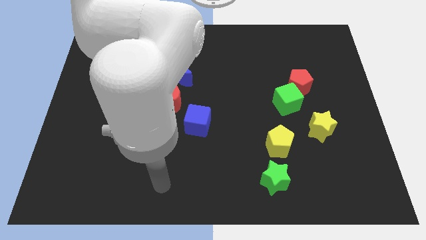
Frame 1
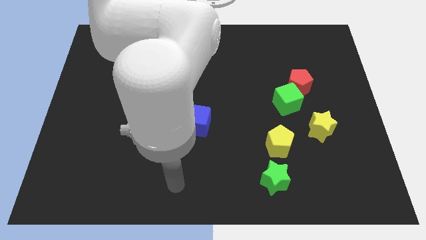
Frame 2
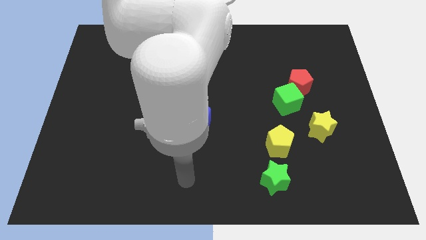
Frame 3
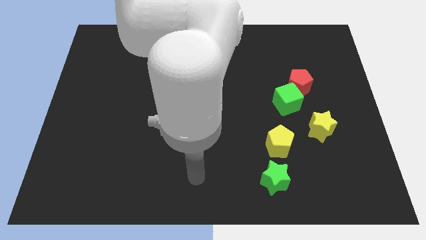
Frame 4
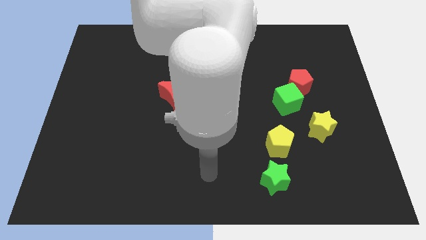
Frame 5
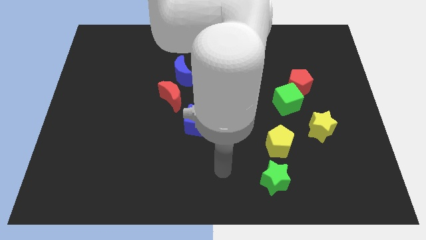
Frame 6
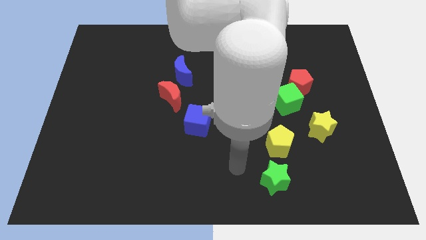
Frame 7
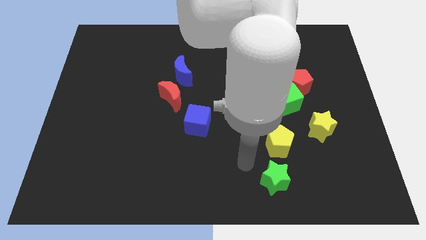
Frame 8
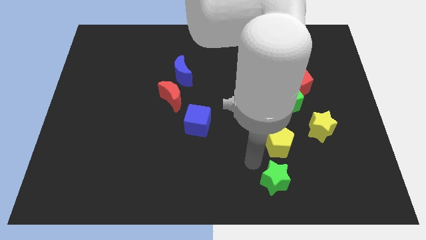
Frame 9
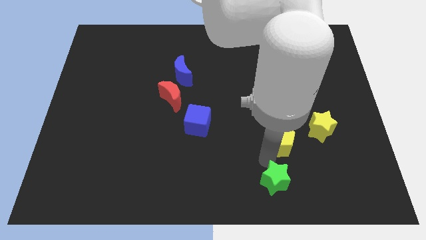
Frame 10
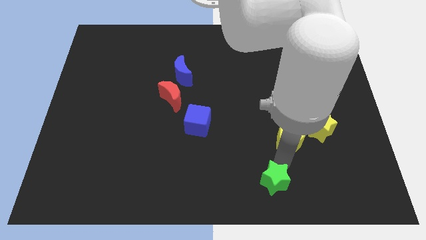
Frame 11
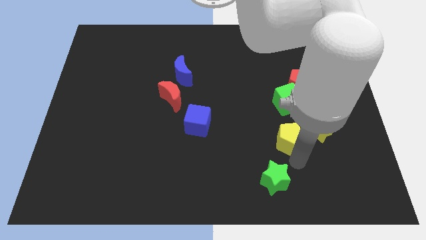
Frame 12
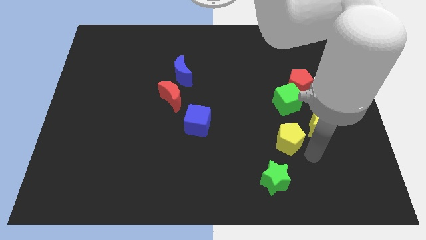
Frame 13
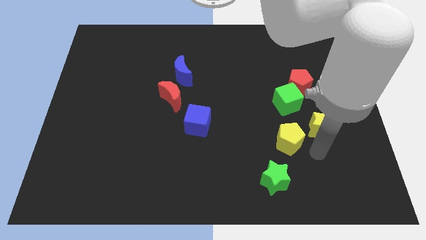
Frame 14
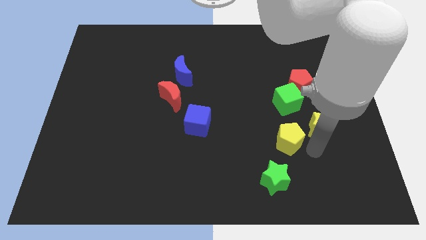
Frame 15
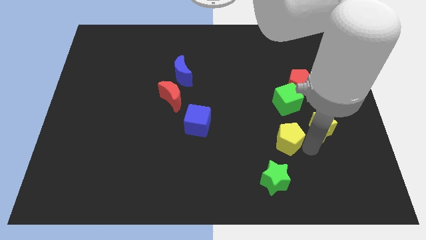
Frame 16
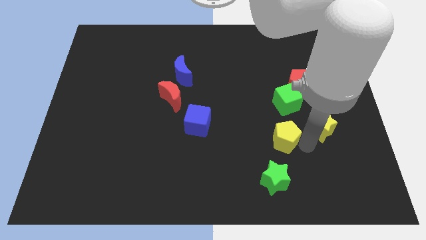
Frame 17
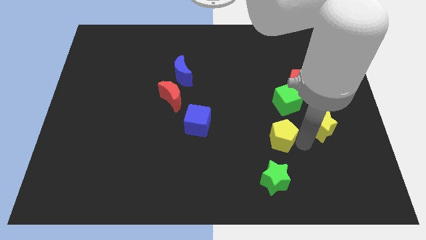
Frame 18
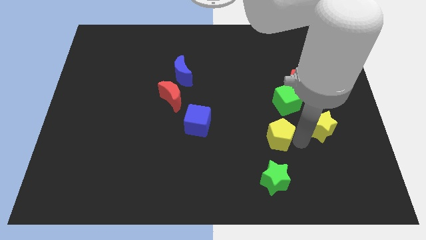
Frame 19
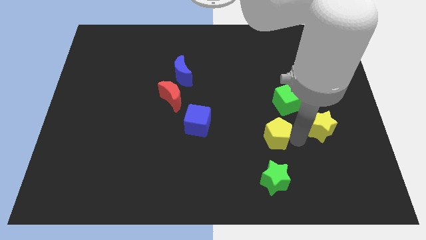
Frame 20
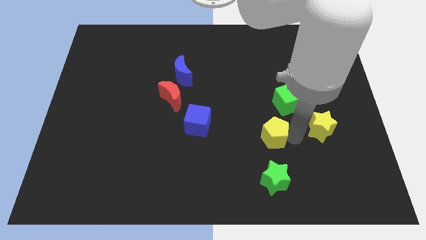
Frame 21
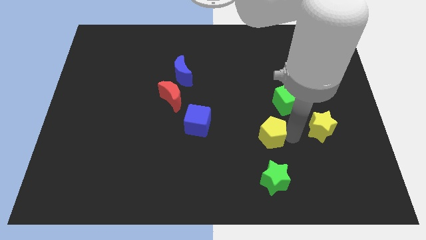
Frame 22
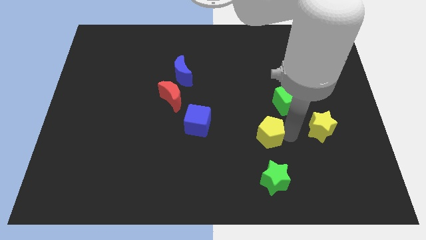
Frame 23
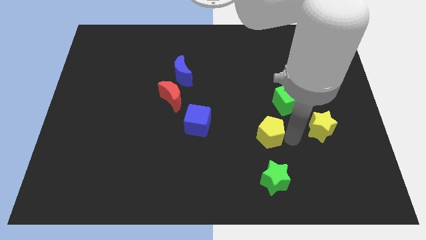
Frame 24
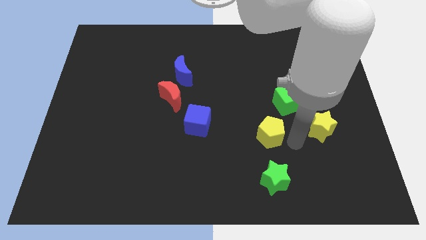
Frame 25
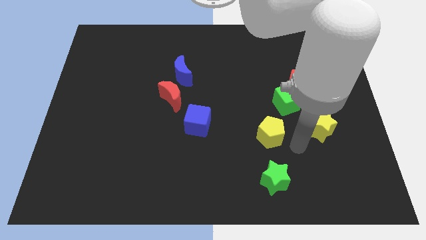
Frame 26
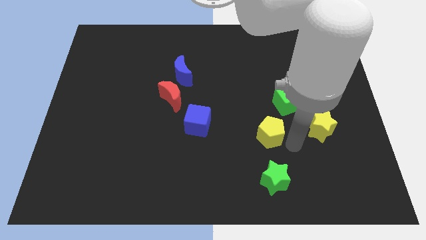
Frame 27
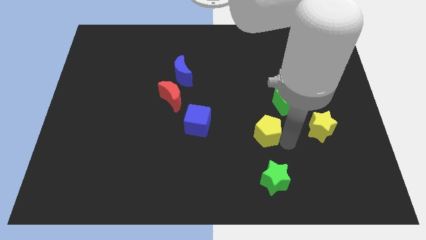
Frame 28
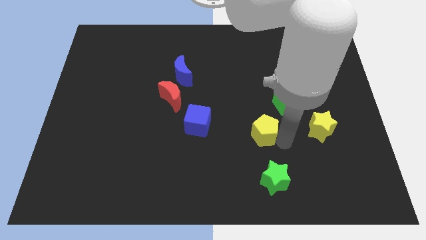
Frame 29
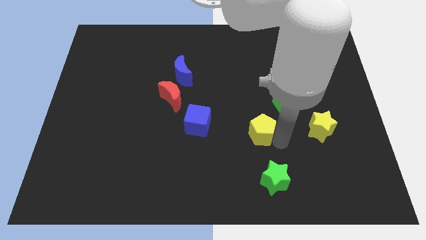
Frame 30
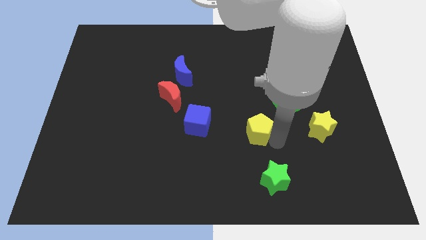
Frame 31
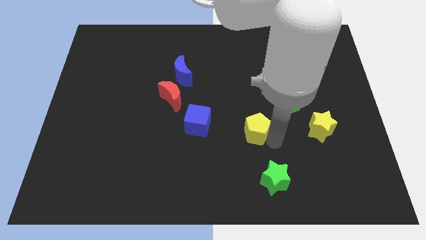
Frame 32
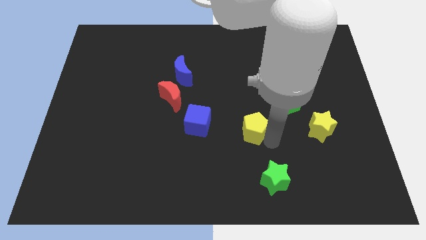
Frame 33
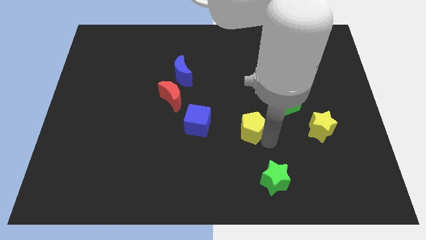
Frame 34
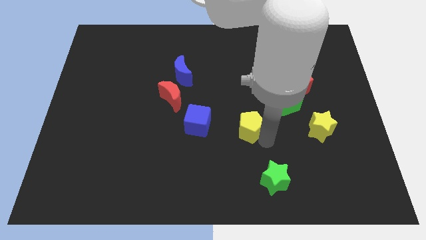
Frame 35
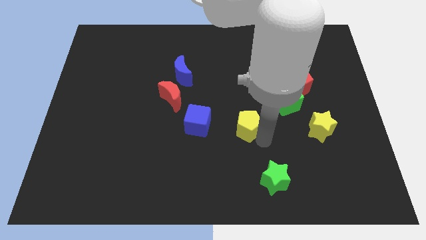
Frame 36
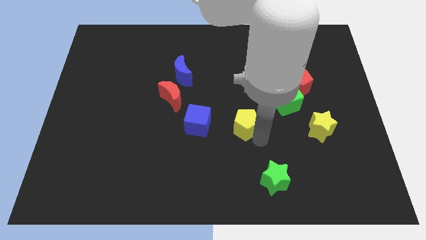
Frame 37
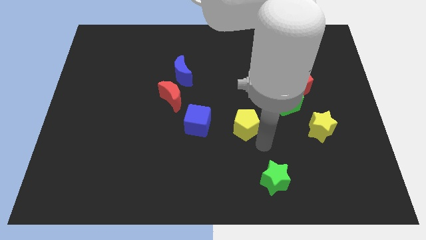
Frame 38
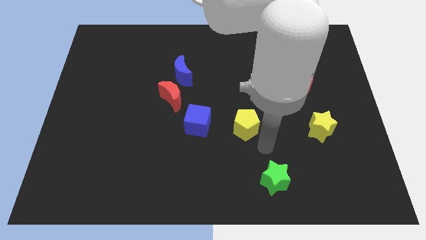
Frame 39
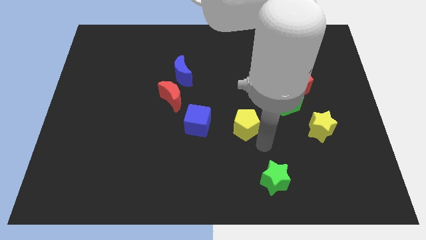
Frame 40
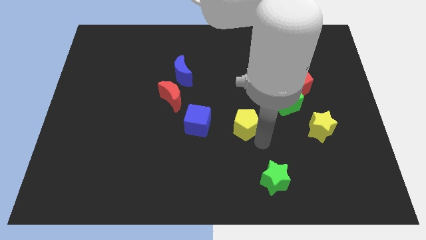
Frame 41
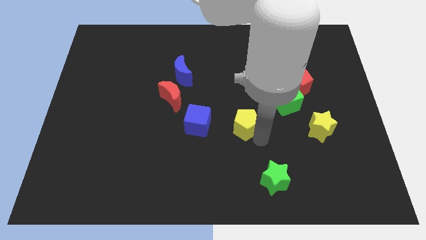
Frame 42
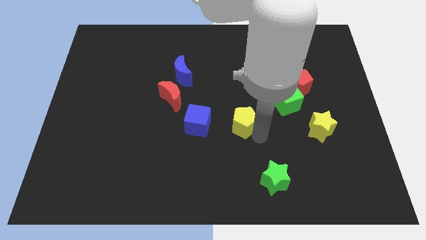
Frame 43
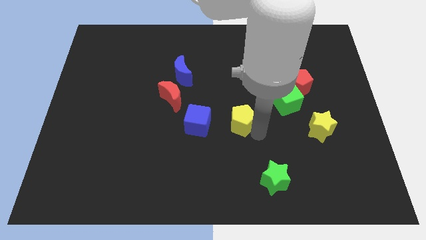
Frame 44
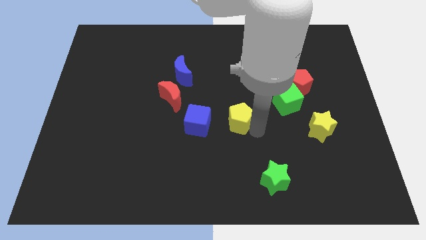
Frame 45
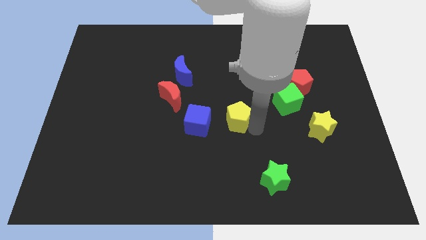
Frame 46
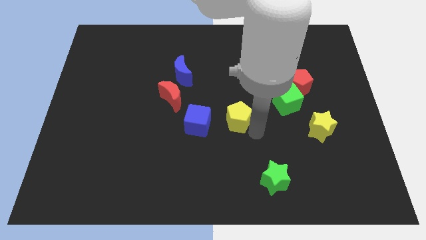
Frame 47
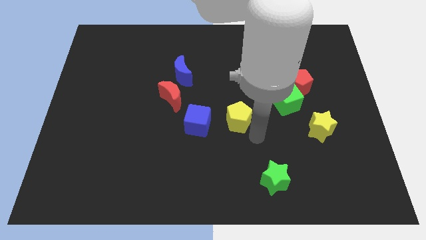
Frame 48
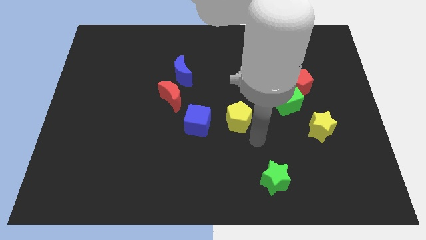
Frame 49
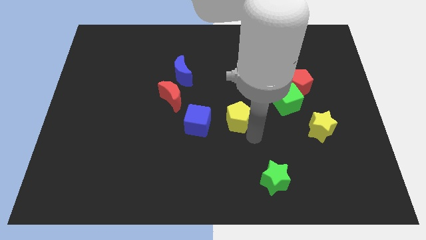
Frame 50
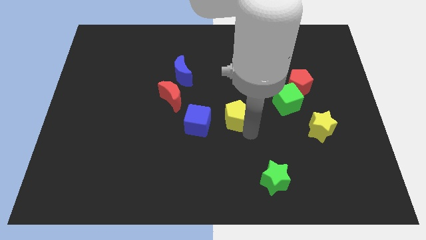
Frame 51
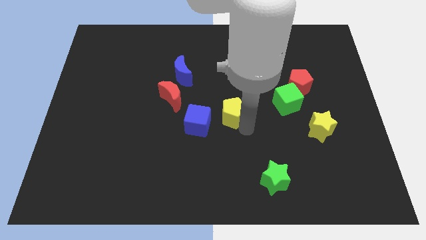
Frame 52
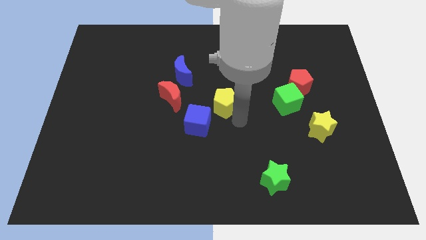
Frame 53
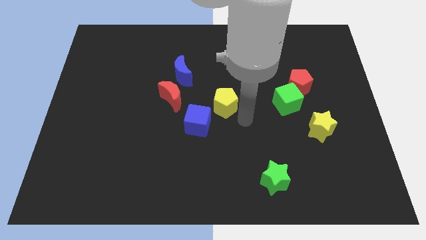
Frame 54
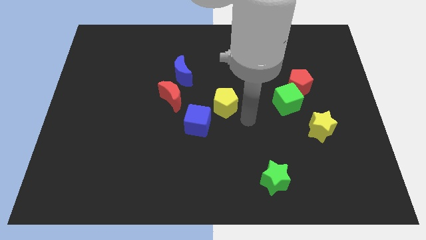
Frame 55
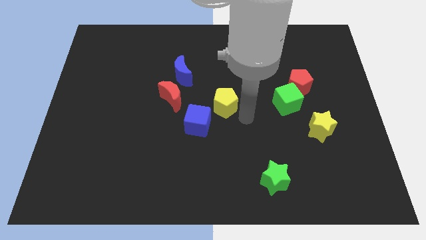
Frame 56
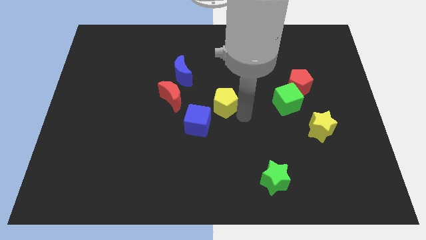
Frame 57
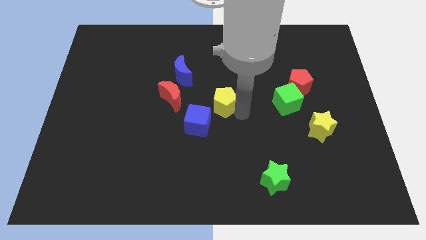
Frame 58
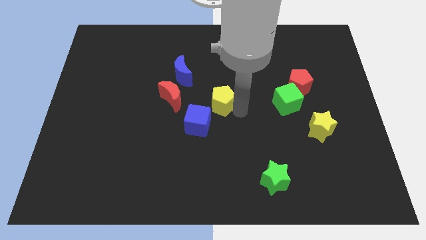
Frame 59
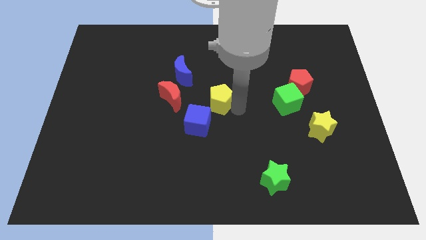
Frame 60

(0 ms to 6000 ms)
move the yellow pentagon to the bottom right of the blue moon

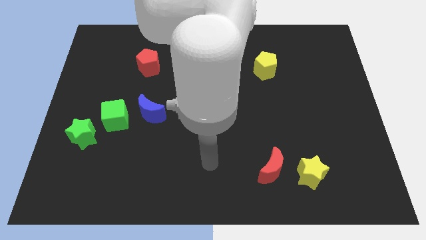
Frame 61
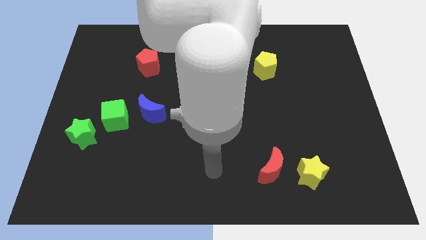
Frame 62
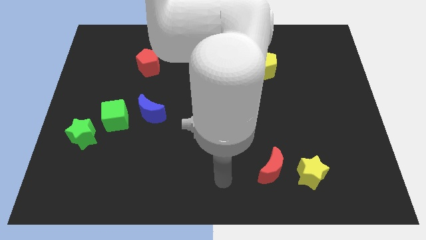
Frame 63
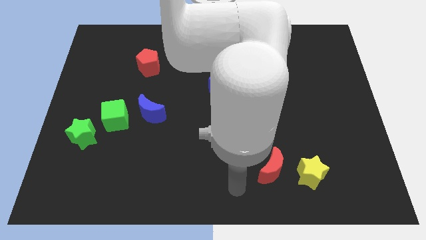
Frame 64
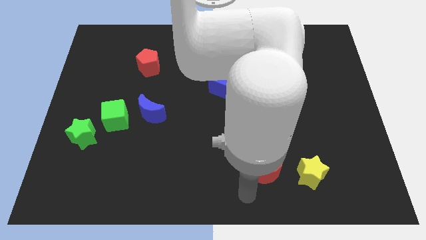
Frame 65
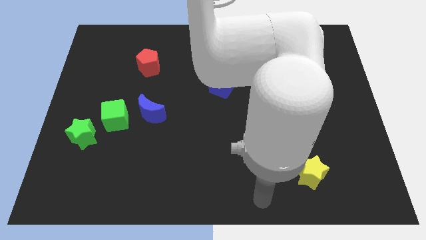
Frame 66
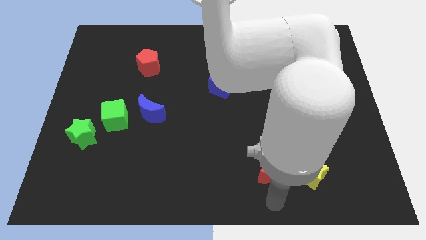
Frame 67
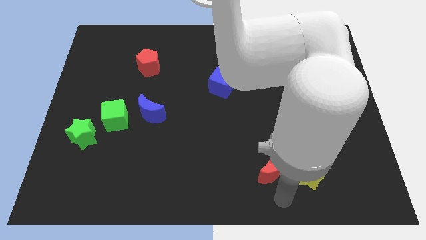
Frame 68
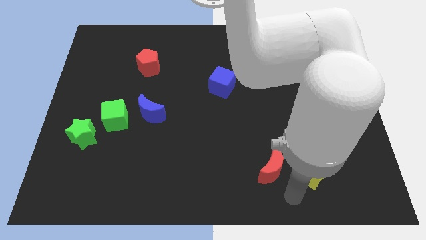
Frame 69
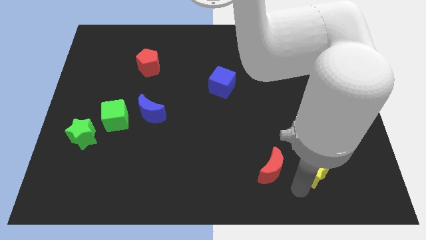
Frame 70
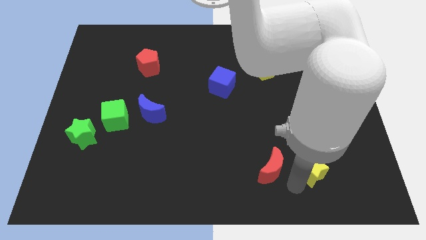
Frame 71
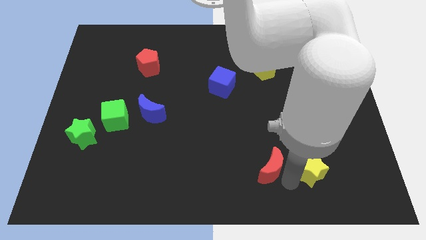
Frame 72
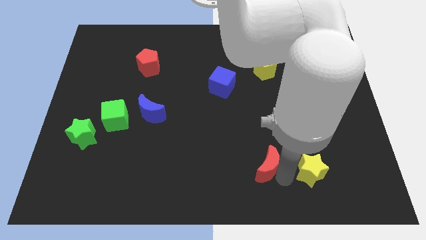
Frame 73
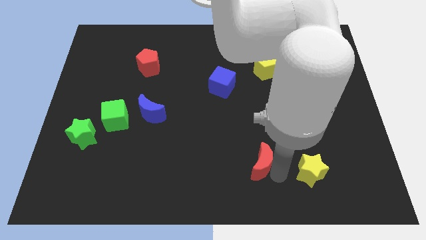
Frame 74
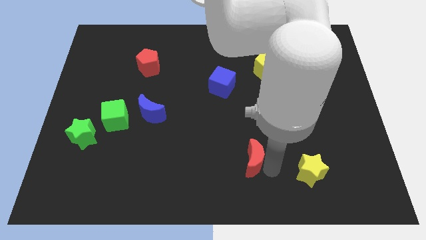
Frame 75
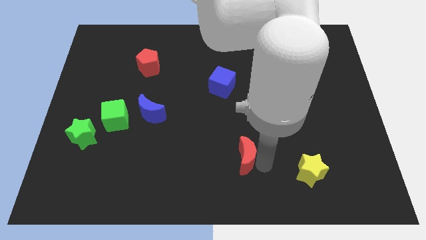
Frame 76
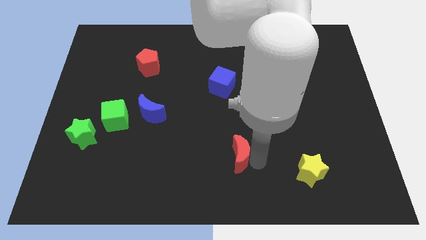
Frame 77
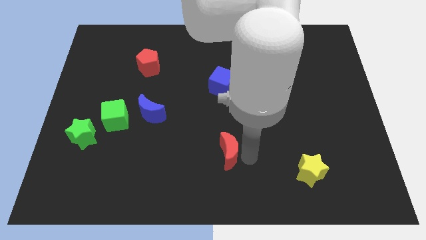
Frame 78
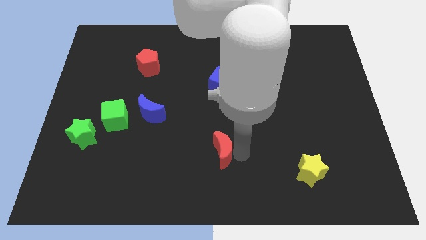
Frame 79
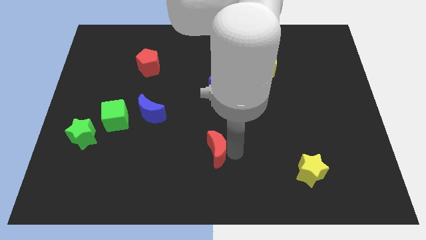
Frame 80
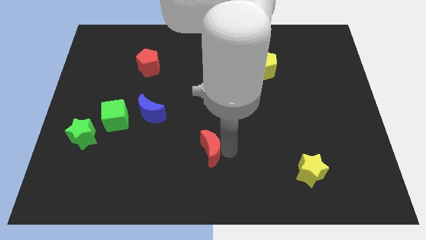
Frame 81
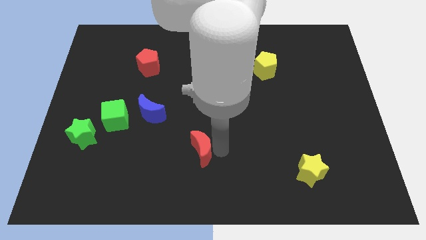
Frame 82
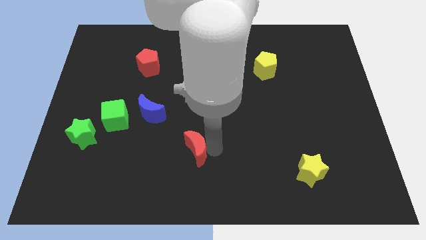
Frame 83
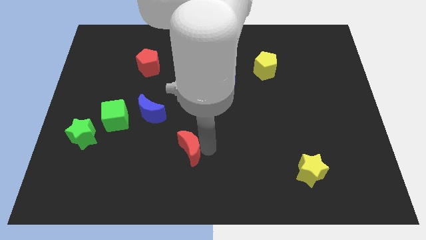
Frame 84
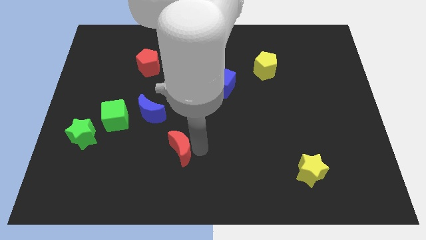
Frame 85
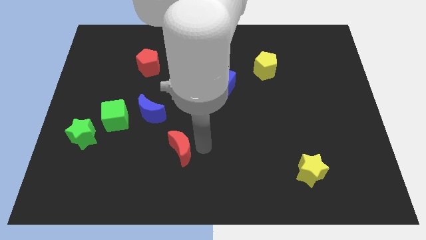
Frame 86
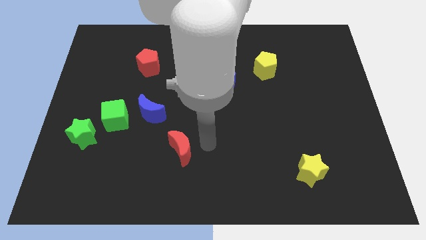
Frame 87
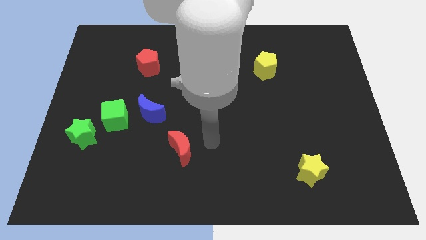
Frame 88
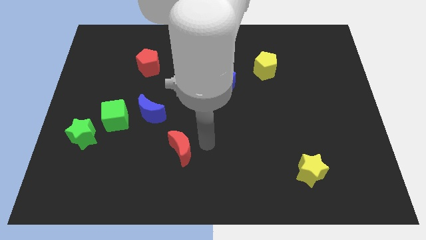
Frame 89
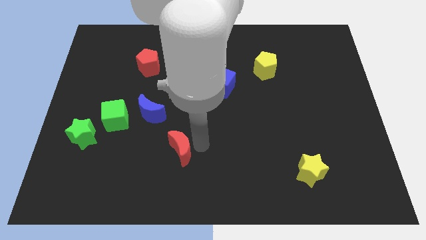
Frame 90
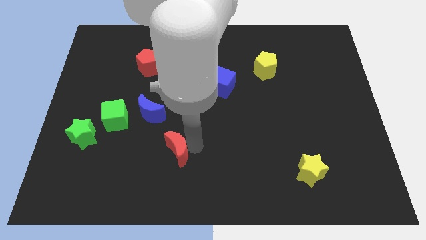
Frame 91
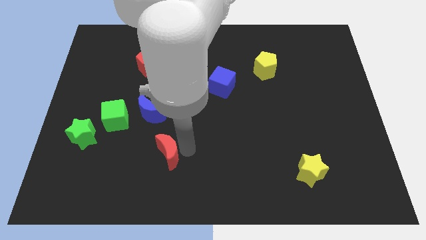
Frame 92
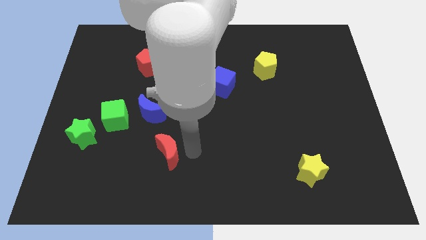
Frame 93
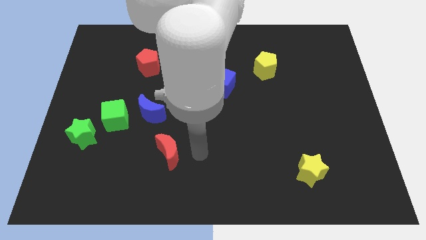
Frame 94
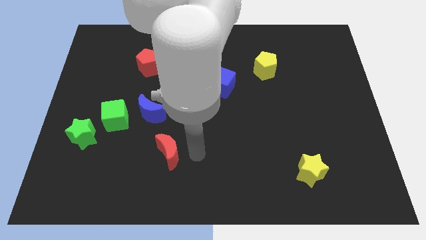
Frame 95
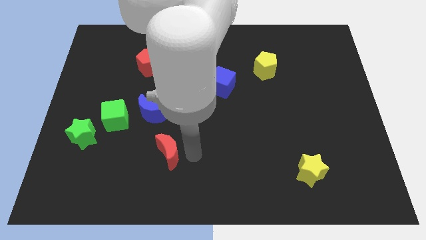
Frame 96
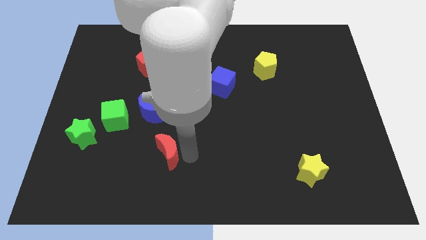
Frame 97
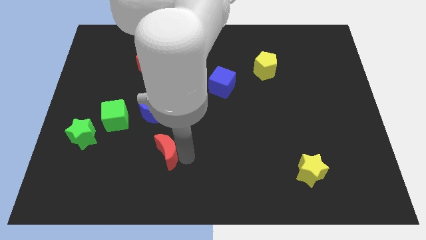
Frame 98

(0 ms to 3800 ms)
move the red moon to the bottom of the blue moon
